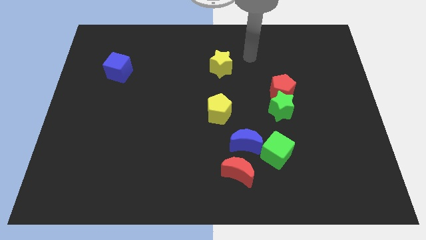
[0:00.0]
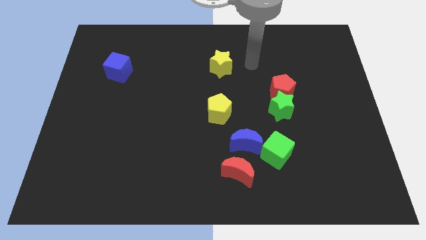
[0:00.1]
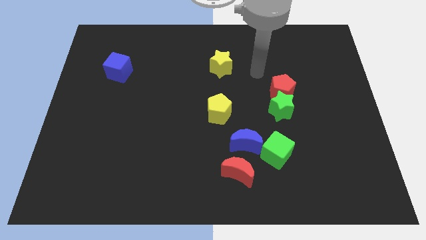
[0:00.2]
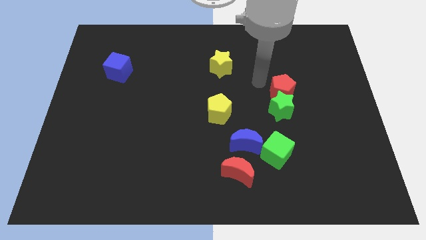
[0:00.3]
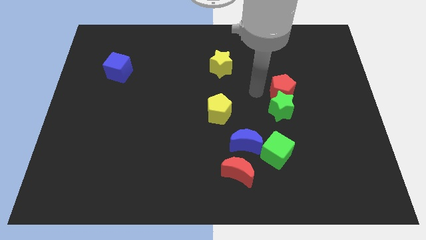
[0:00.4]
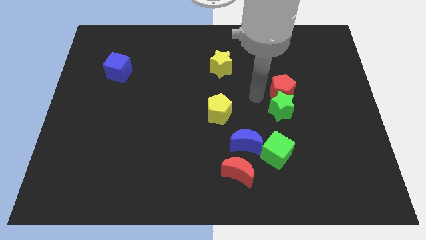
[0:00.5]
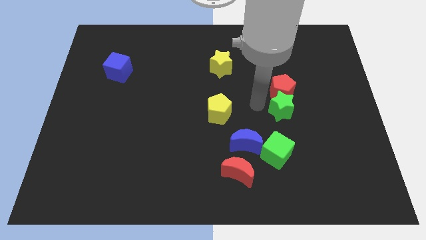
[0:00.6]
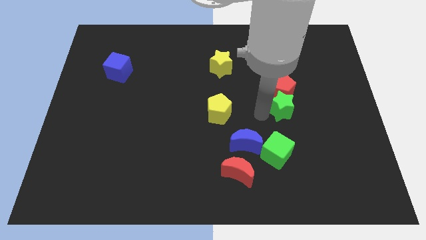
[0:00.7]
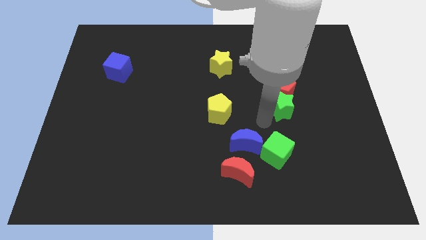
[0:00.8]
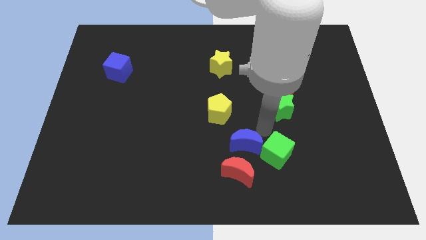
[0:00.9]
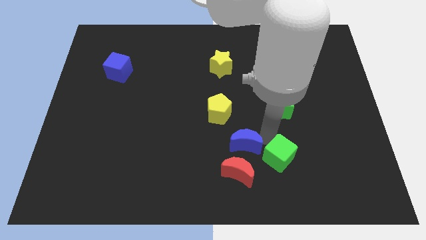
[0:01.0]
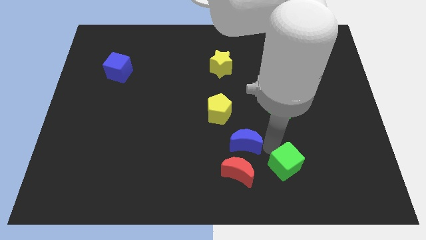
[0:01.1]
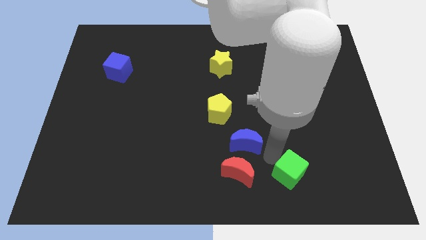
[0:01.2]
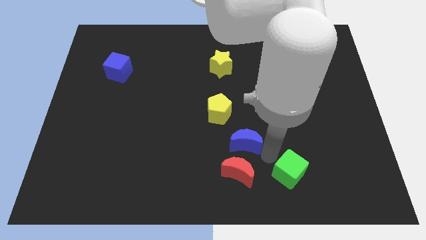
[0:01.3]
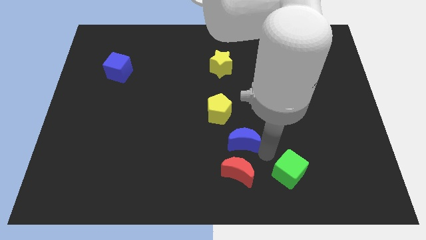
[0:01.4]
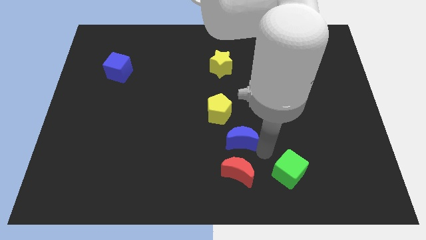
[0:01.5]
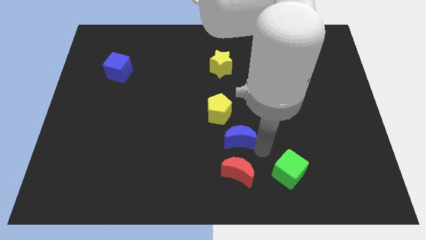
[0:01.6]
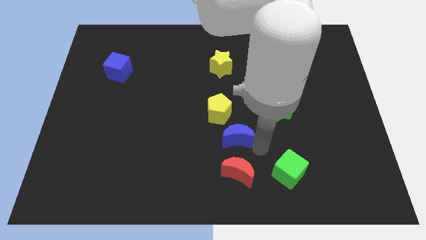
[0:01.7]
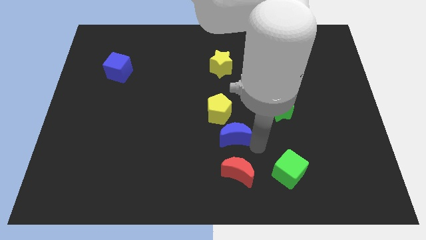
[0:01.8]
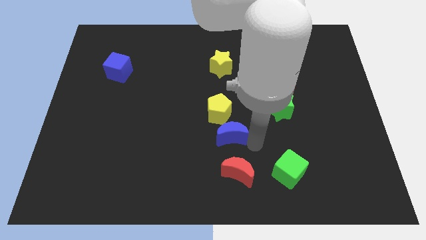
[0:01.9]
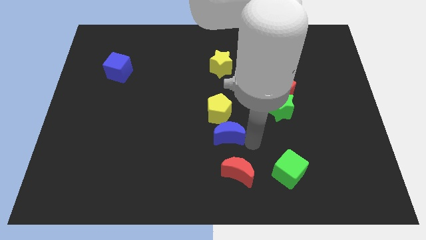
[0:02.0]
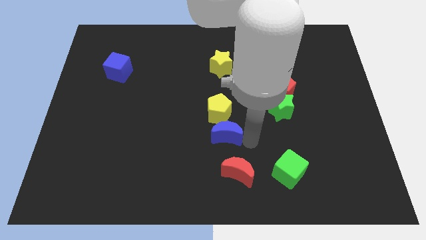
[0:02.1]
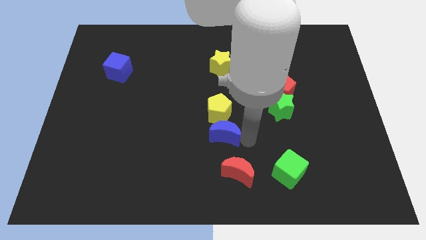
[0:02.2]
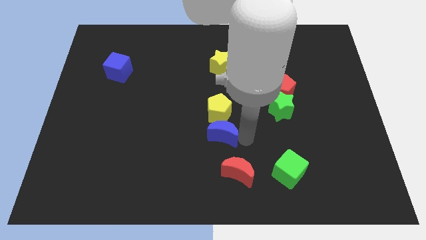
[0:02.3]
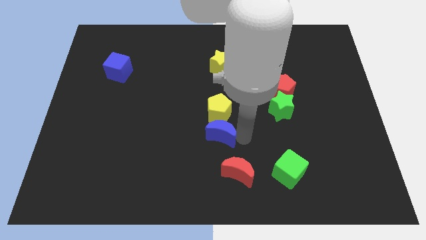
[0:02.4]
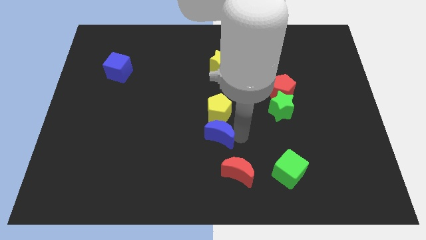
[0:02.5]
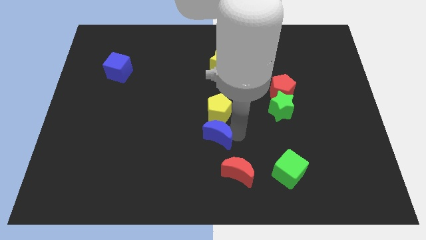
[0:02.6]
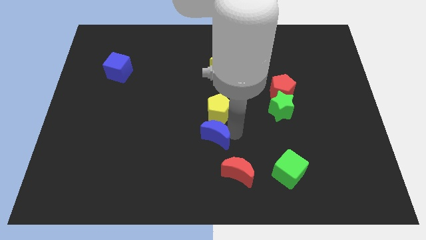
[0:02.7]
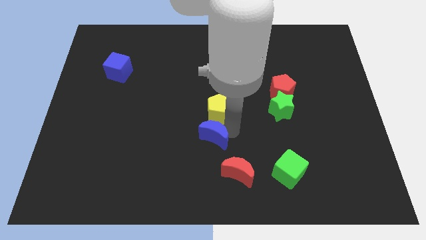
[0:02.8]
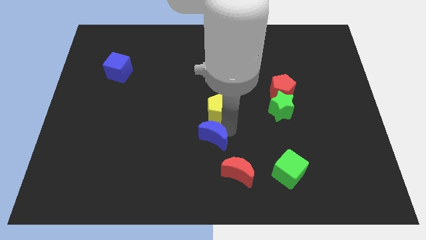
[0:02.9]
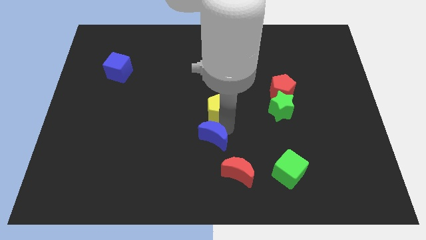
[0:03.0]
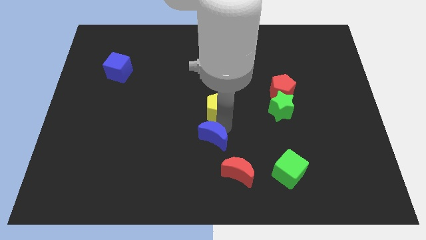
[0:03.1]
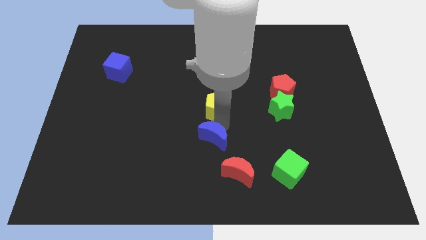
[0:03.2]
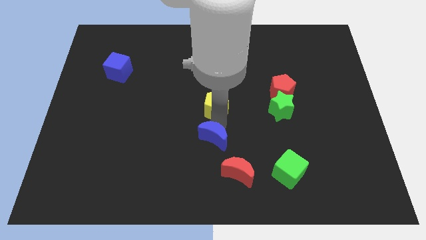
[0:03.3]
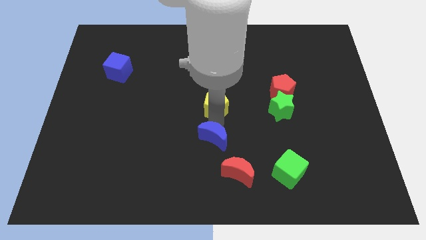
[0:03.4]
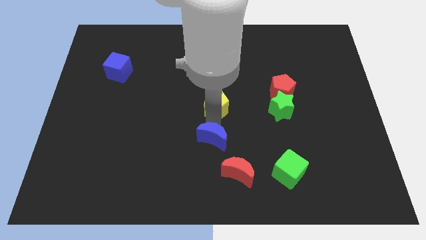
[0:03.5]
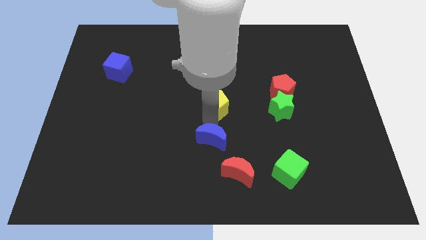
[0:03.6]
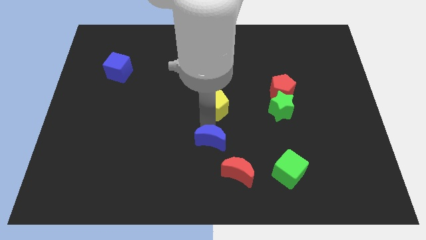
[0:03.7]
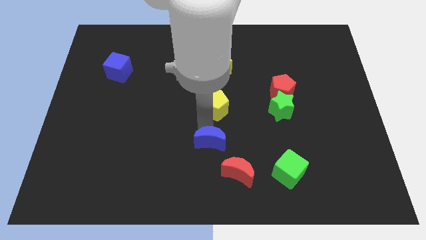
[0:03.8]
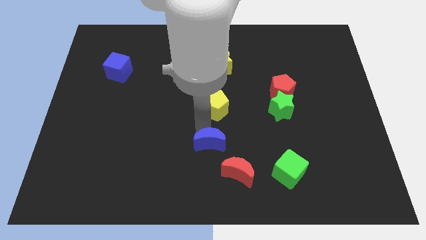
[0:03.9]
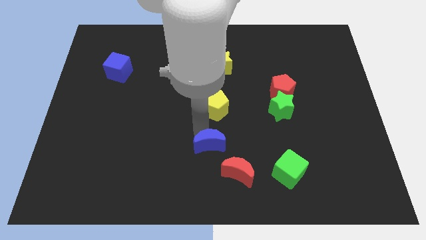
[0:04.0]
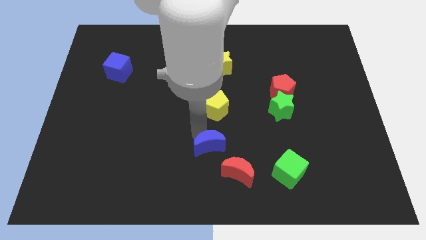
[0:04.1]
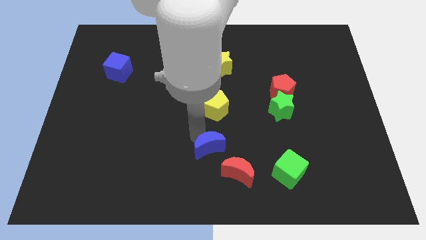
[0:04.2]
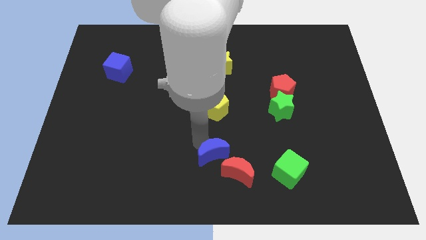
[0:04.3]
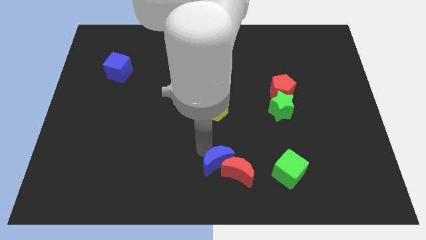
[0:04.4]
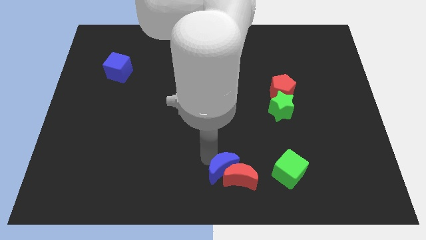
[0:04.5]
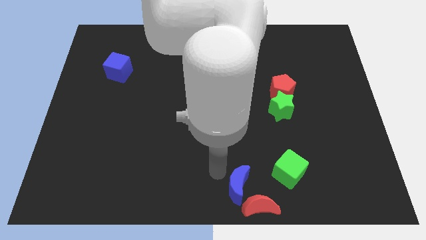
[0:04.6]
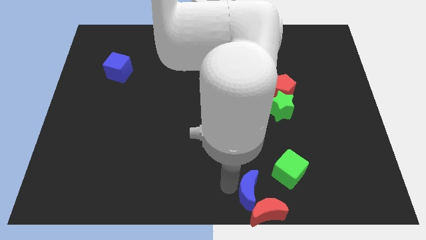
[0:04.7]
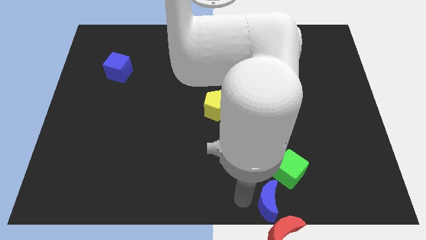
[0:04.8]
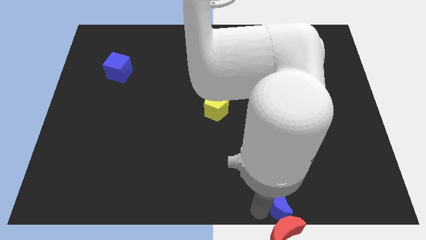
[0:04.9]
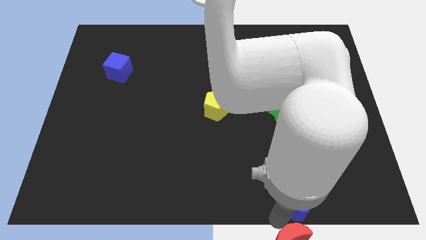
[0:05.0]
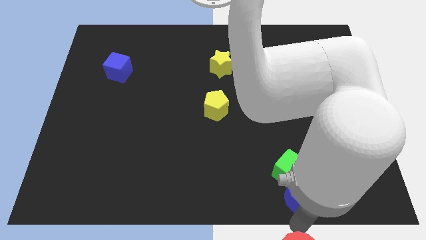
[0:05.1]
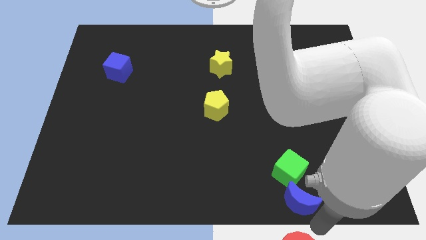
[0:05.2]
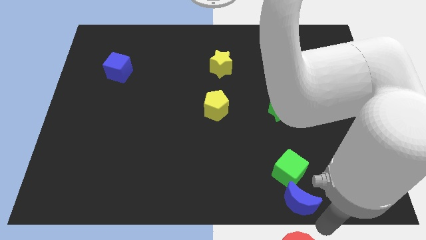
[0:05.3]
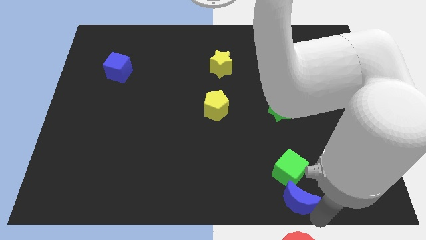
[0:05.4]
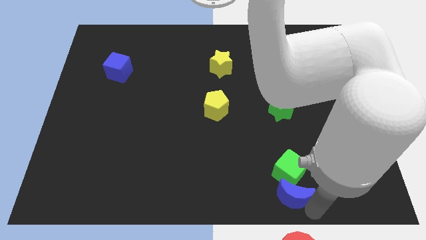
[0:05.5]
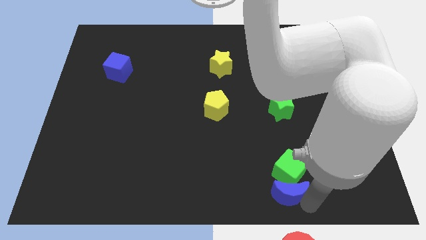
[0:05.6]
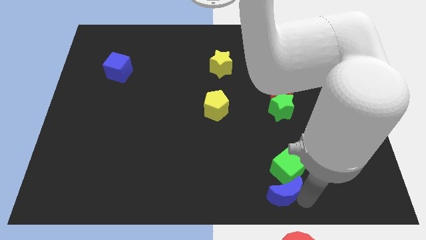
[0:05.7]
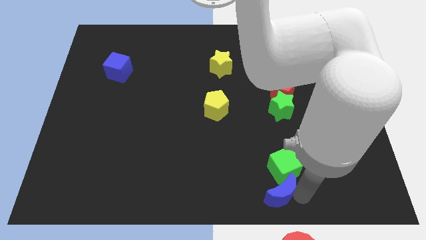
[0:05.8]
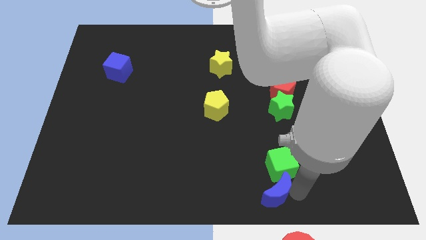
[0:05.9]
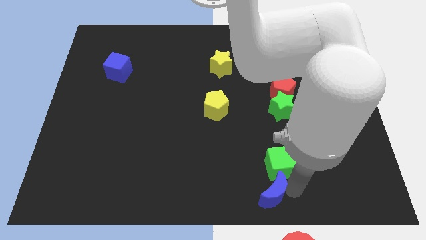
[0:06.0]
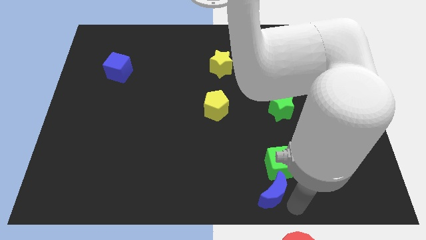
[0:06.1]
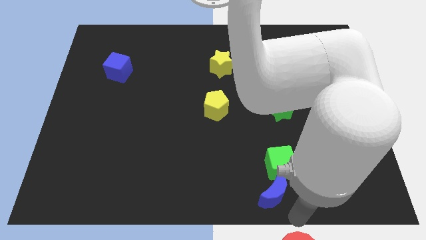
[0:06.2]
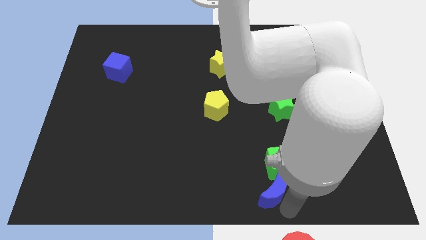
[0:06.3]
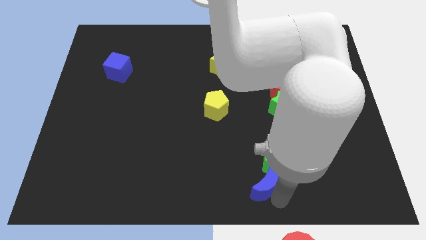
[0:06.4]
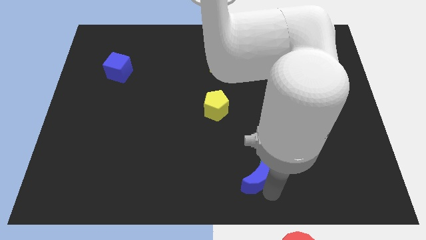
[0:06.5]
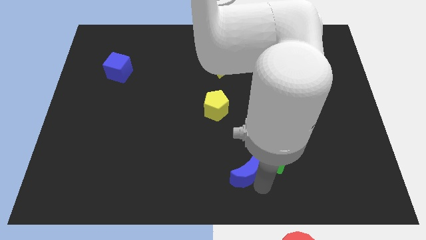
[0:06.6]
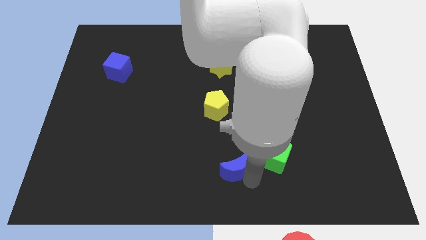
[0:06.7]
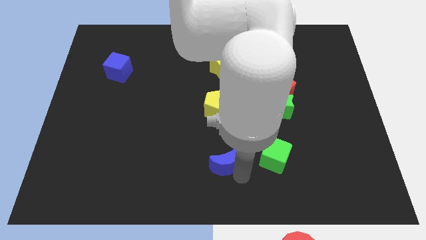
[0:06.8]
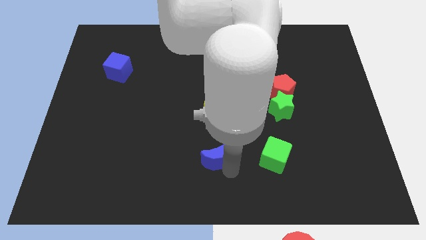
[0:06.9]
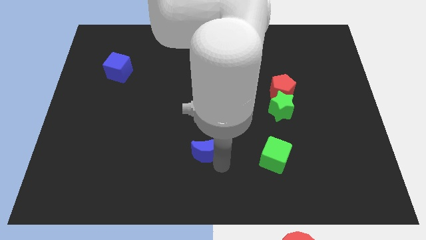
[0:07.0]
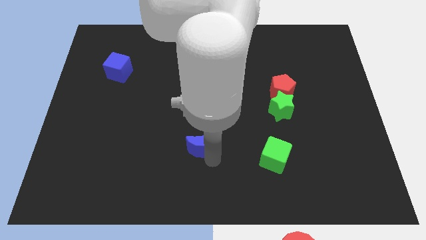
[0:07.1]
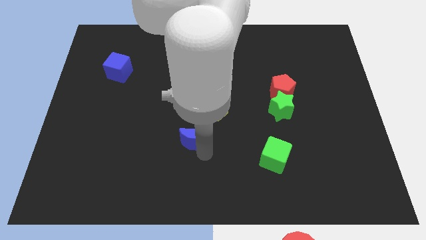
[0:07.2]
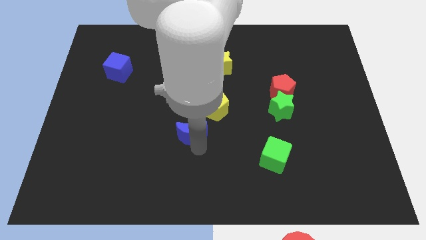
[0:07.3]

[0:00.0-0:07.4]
slightly move the blue moon upwards and to the left diagonally

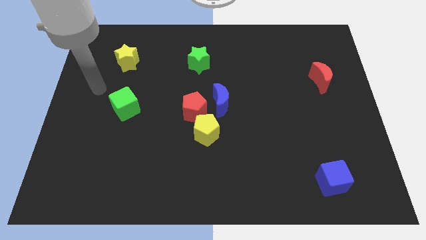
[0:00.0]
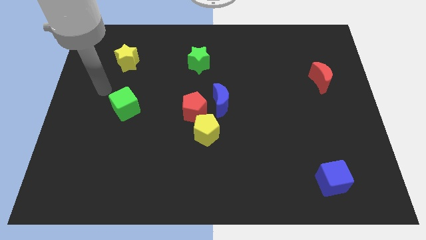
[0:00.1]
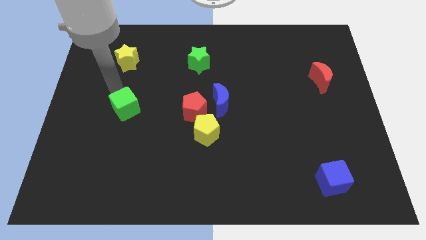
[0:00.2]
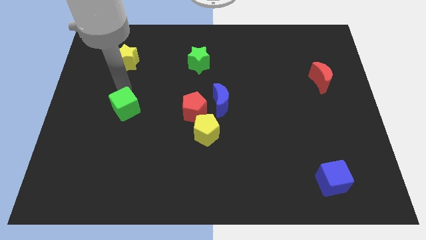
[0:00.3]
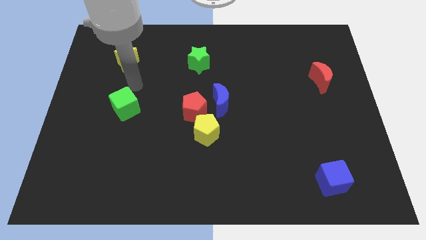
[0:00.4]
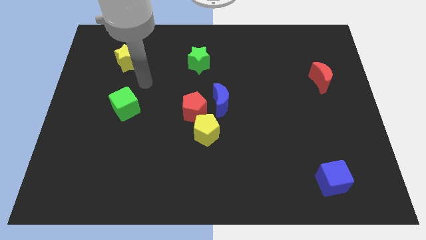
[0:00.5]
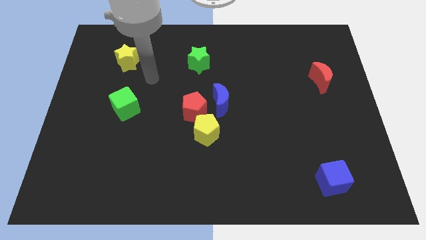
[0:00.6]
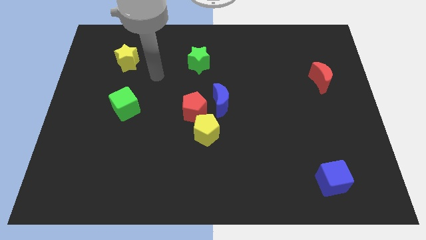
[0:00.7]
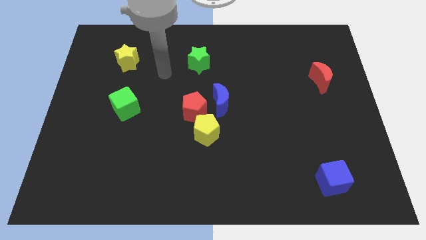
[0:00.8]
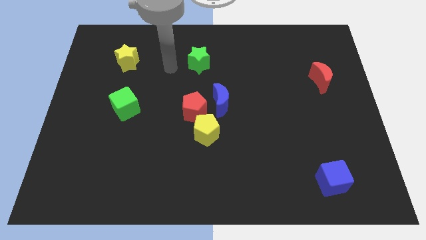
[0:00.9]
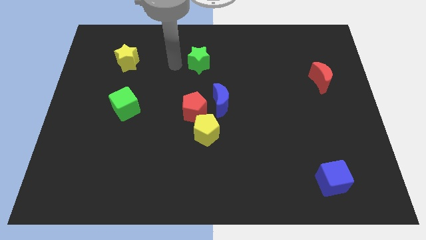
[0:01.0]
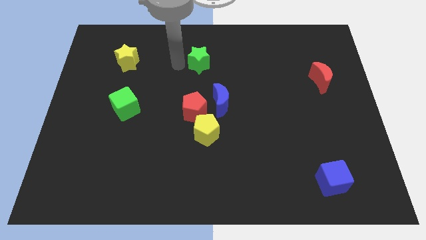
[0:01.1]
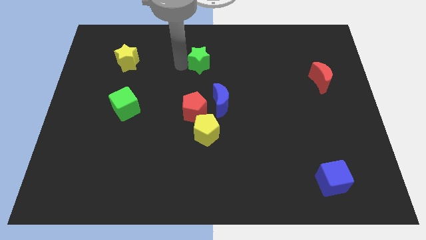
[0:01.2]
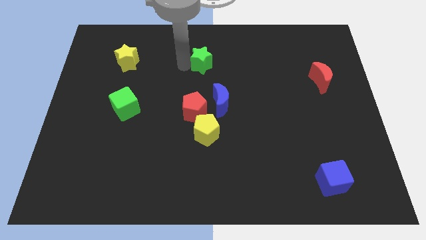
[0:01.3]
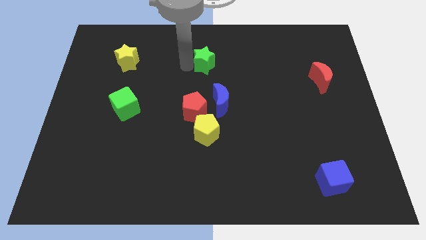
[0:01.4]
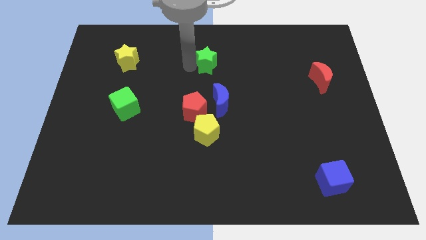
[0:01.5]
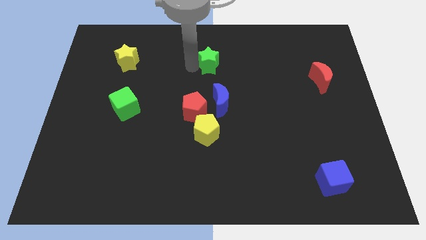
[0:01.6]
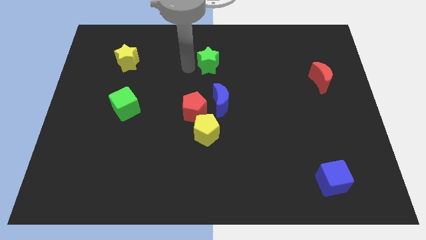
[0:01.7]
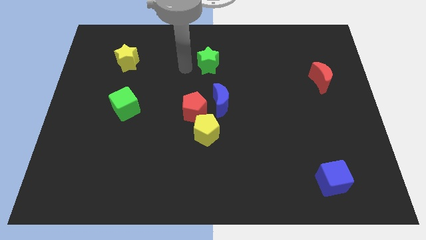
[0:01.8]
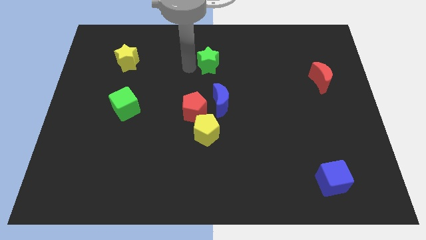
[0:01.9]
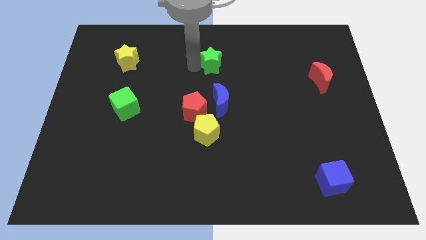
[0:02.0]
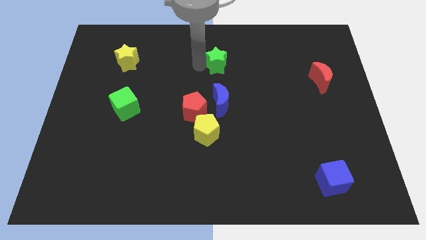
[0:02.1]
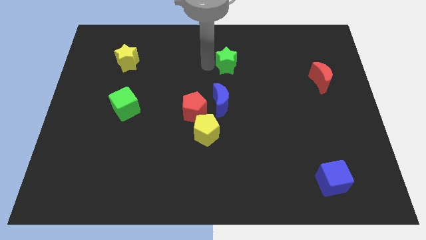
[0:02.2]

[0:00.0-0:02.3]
slightly move the green star to the right
